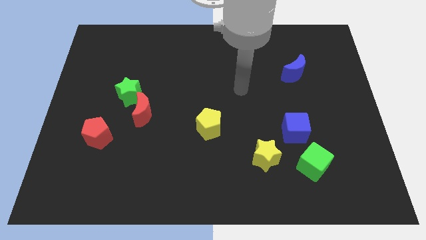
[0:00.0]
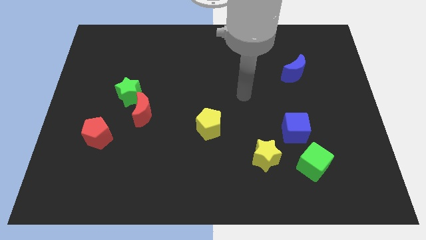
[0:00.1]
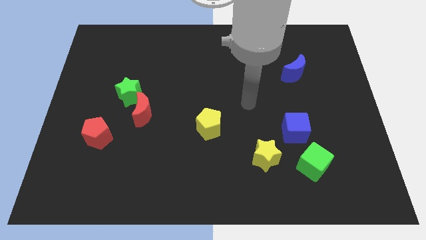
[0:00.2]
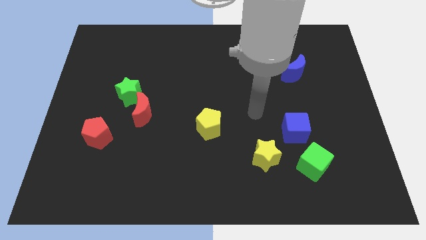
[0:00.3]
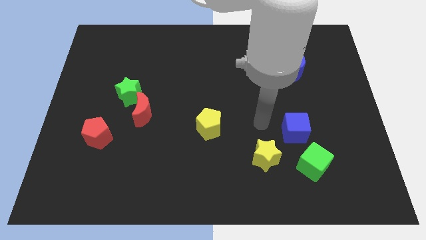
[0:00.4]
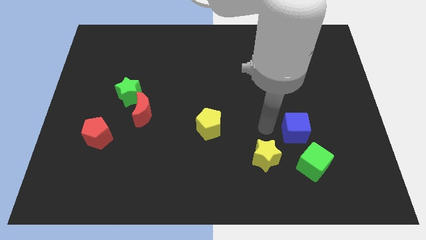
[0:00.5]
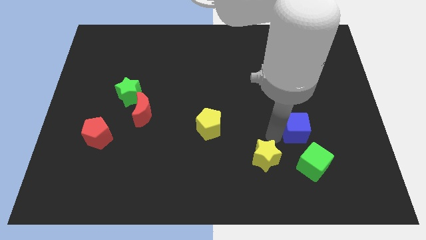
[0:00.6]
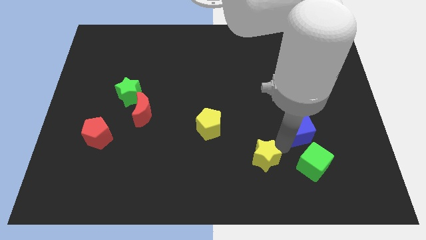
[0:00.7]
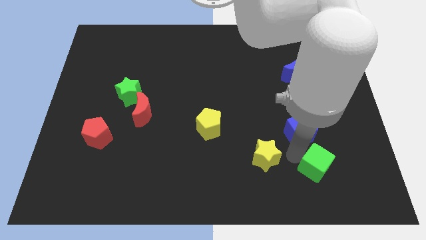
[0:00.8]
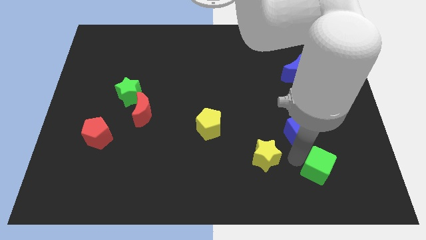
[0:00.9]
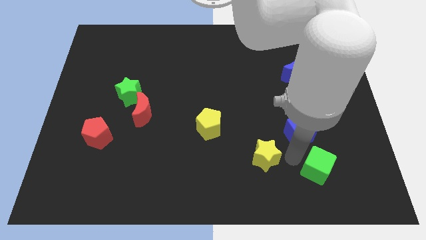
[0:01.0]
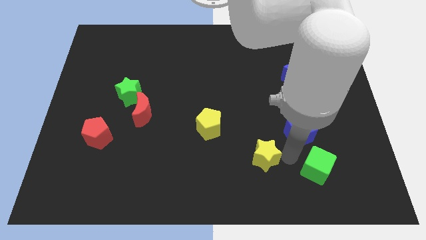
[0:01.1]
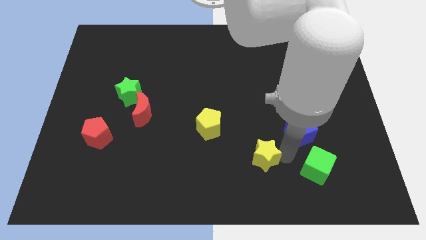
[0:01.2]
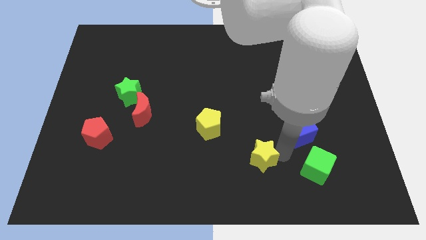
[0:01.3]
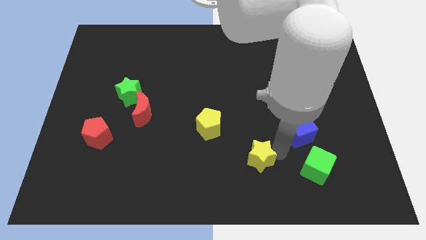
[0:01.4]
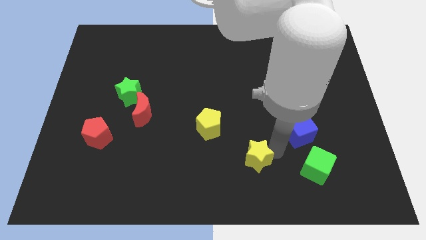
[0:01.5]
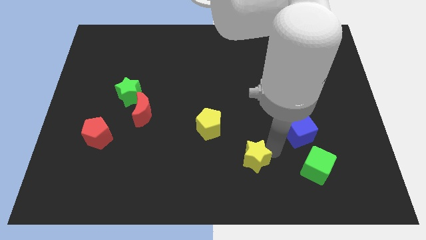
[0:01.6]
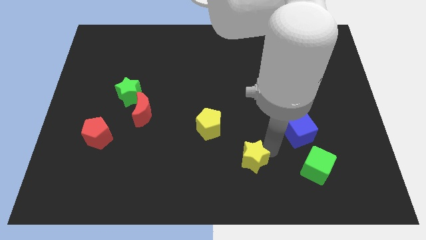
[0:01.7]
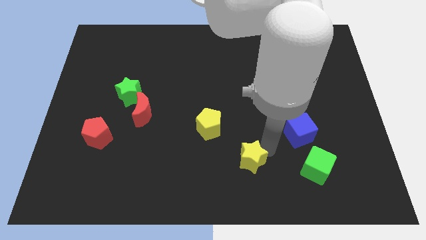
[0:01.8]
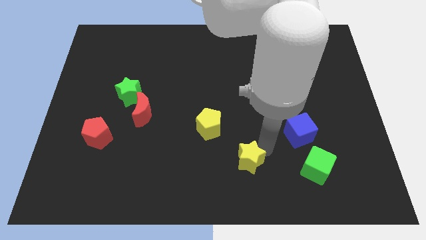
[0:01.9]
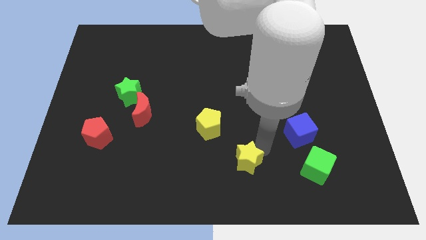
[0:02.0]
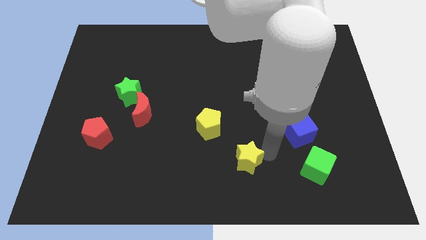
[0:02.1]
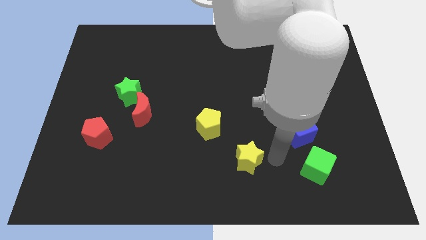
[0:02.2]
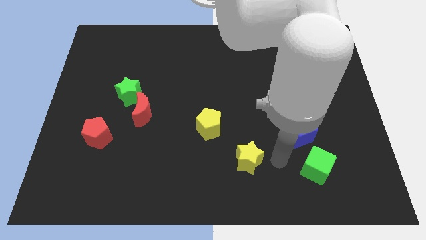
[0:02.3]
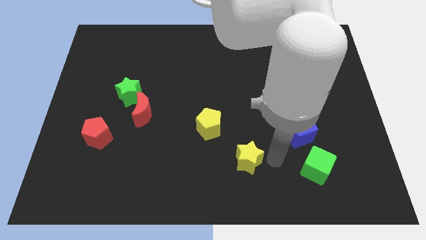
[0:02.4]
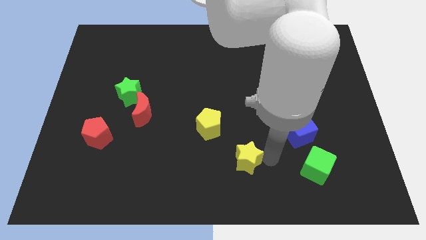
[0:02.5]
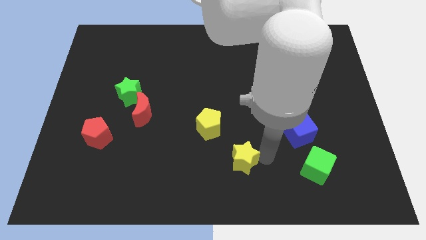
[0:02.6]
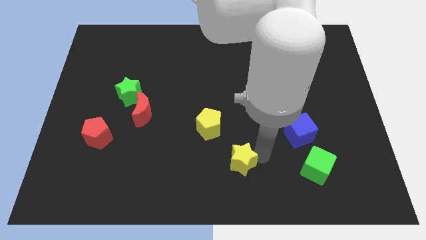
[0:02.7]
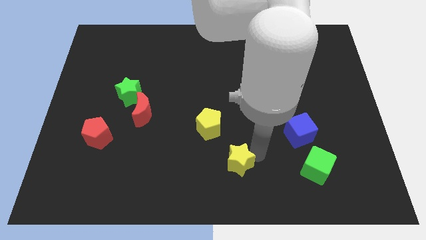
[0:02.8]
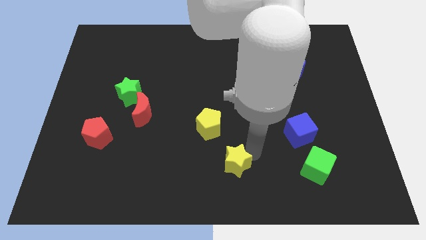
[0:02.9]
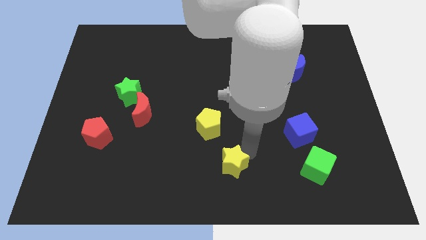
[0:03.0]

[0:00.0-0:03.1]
move the yellow star to the left slightly

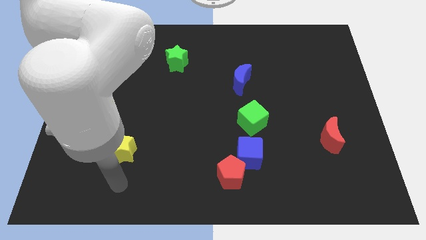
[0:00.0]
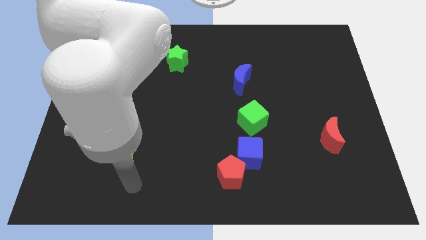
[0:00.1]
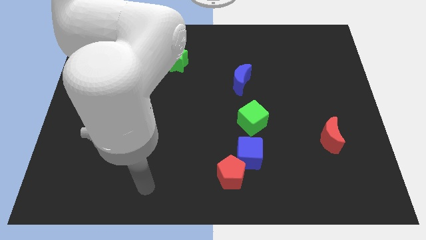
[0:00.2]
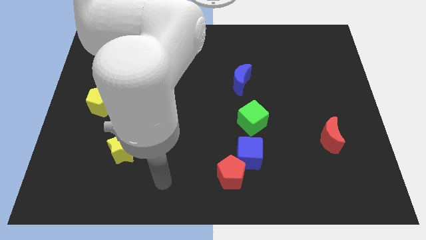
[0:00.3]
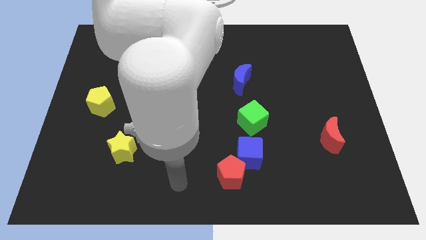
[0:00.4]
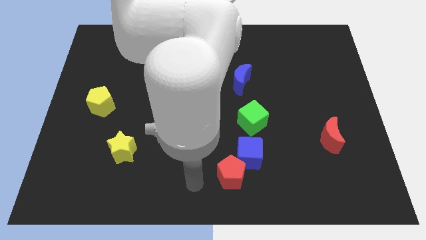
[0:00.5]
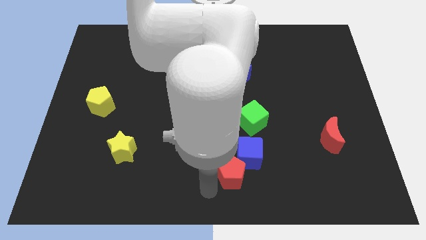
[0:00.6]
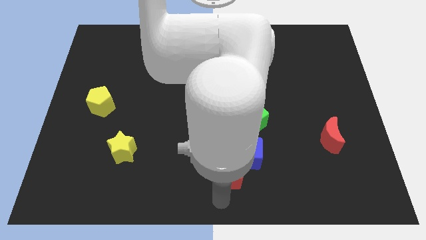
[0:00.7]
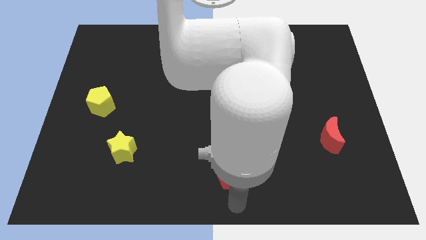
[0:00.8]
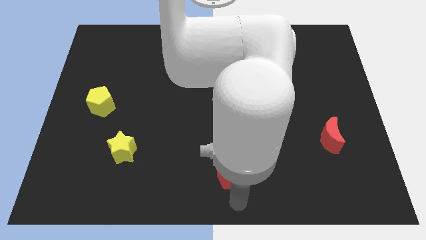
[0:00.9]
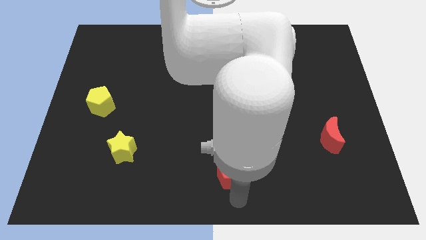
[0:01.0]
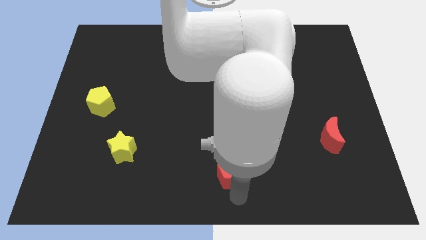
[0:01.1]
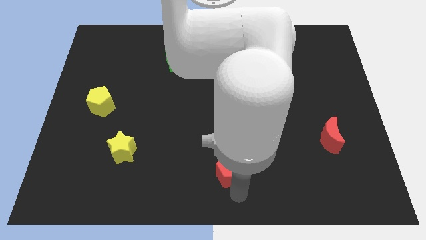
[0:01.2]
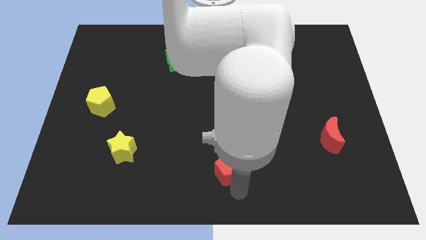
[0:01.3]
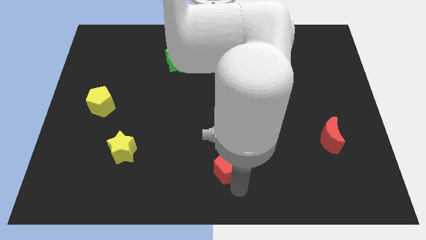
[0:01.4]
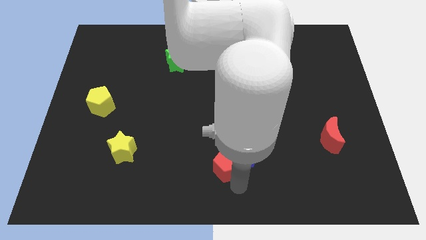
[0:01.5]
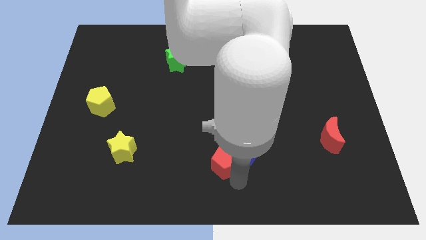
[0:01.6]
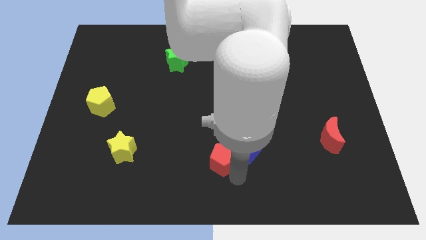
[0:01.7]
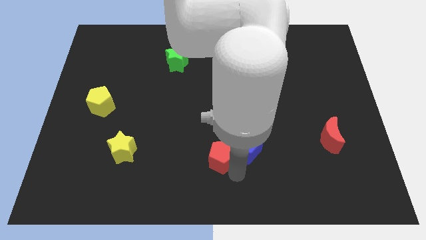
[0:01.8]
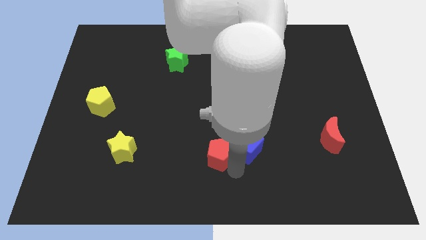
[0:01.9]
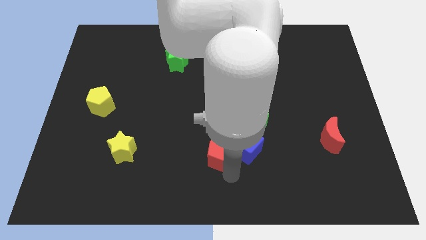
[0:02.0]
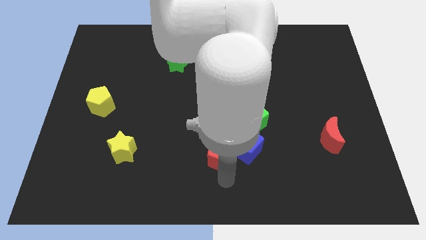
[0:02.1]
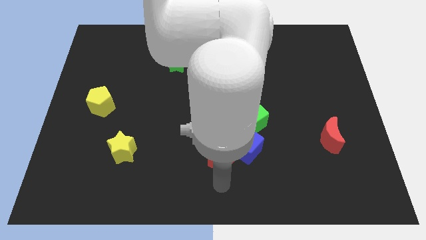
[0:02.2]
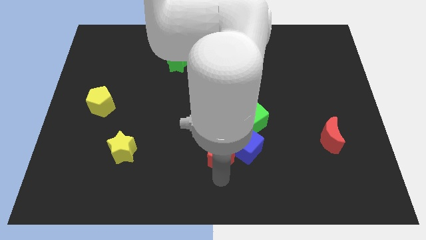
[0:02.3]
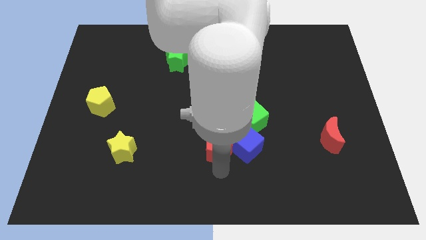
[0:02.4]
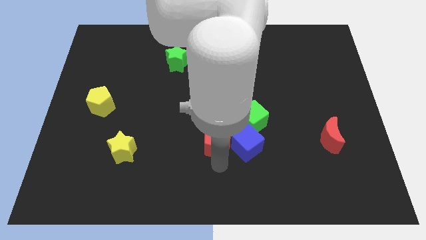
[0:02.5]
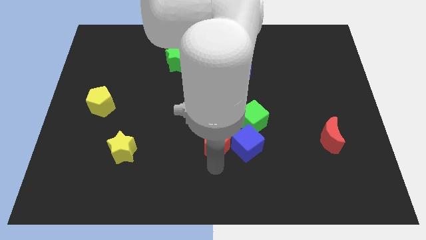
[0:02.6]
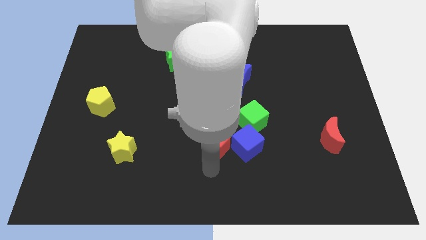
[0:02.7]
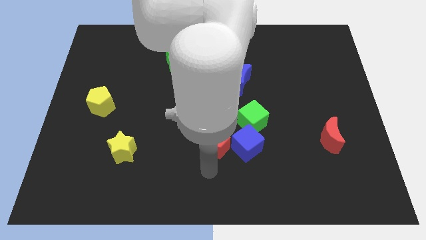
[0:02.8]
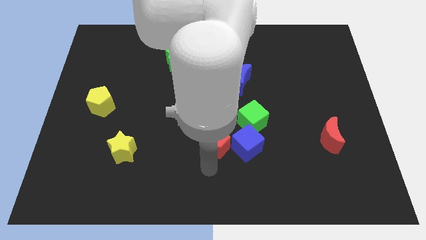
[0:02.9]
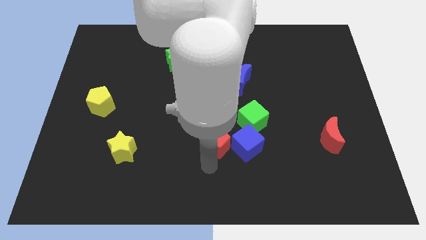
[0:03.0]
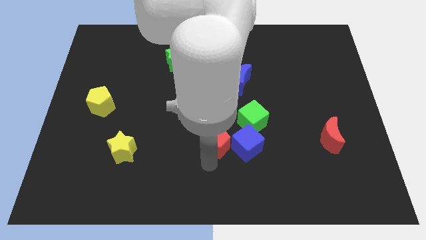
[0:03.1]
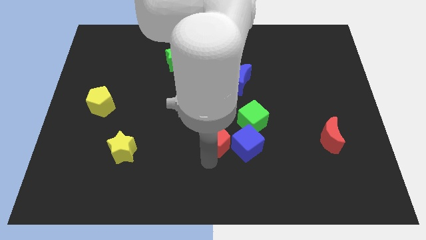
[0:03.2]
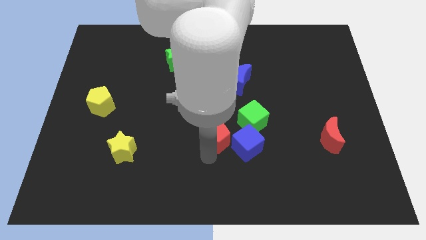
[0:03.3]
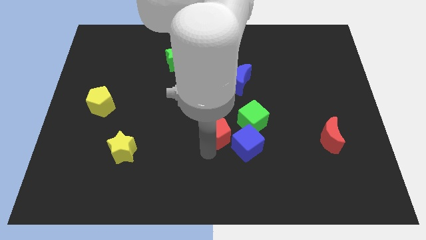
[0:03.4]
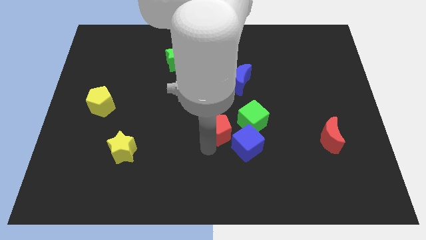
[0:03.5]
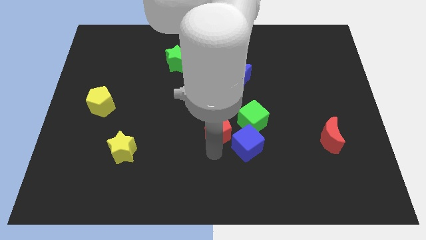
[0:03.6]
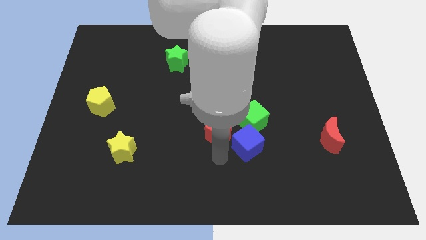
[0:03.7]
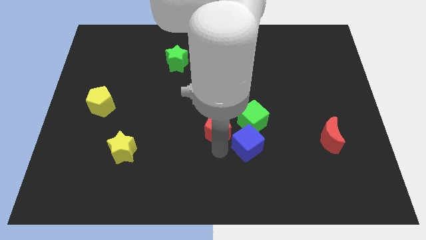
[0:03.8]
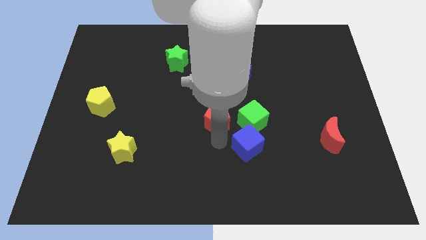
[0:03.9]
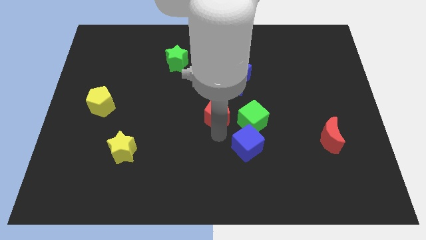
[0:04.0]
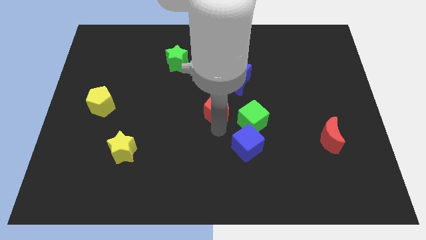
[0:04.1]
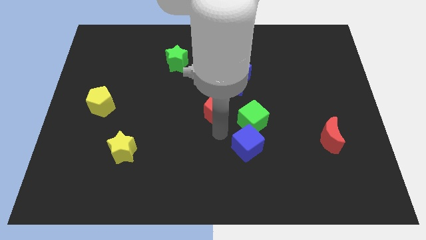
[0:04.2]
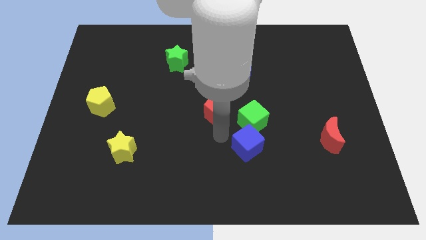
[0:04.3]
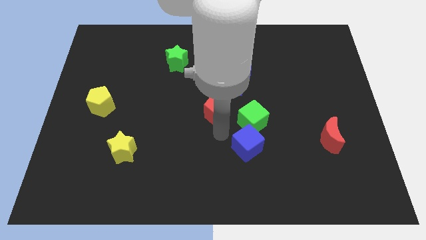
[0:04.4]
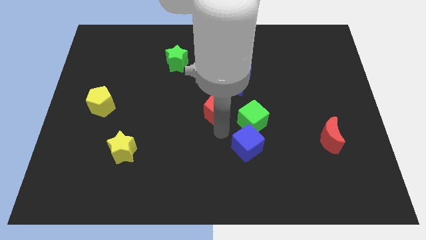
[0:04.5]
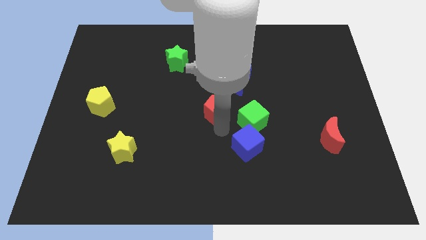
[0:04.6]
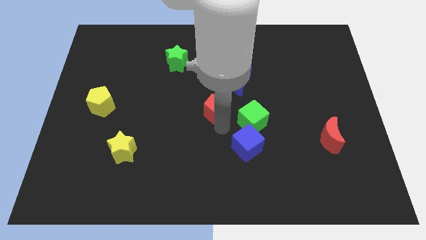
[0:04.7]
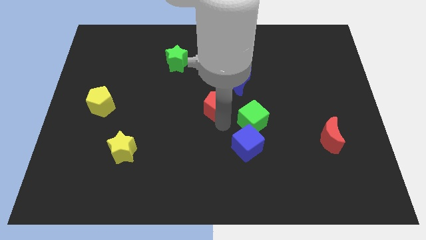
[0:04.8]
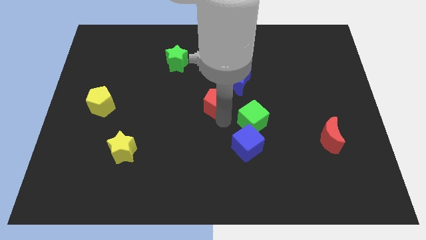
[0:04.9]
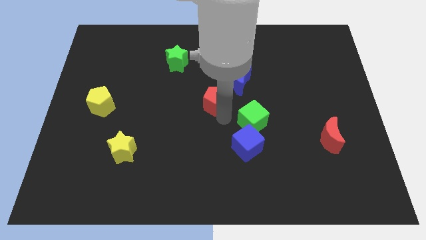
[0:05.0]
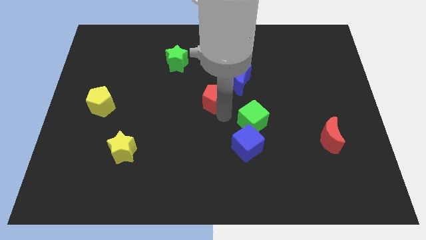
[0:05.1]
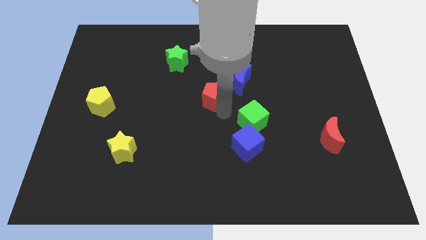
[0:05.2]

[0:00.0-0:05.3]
slide the red pentagon up
